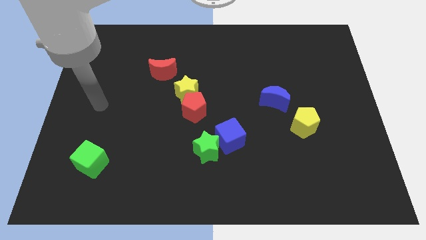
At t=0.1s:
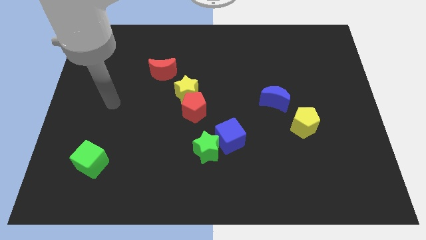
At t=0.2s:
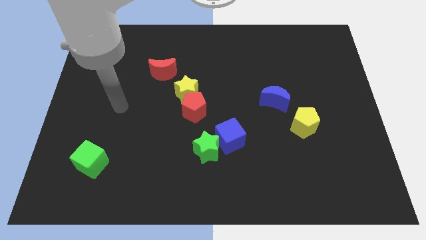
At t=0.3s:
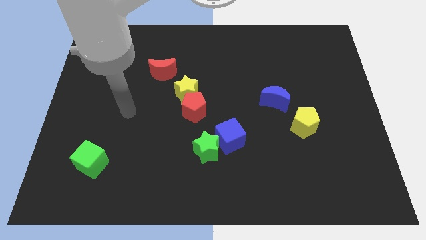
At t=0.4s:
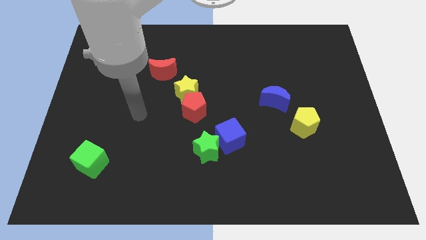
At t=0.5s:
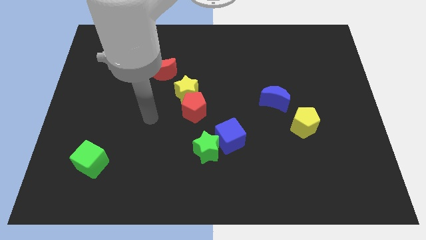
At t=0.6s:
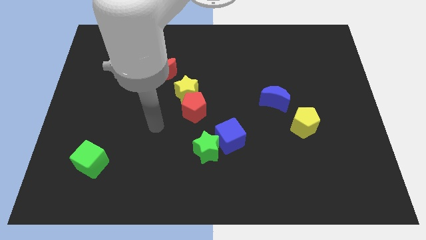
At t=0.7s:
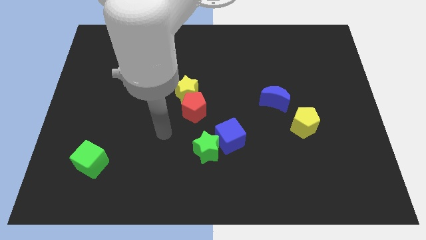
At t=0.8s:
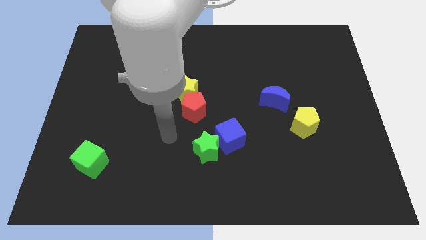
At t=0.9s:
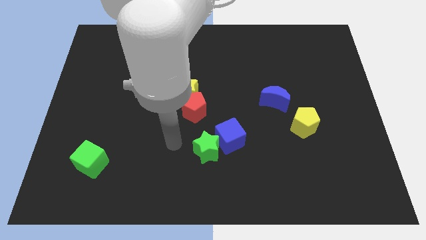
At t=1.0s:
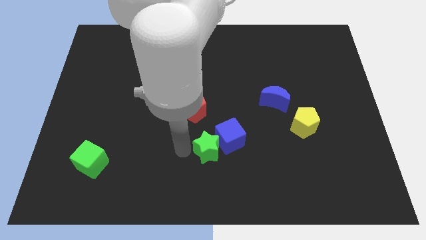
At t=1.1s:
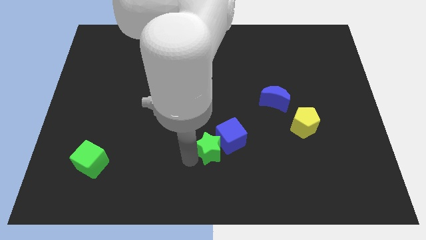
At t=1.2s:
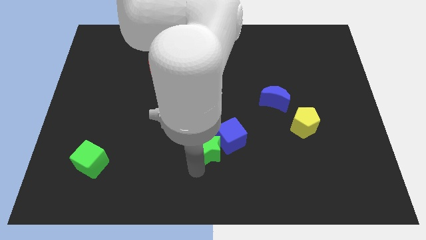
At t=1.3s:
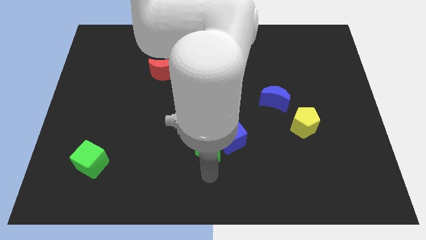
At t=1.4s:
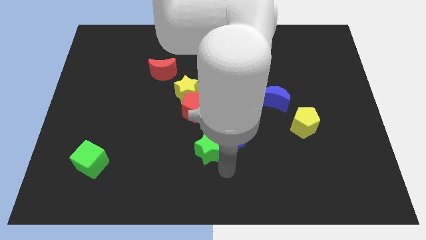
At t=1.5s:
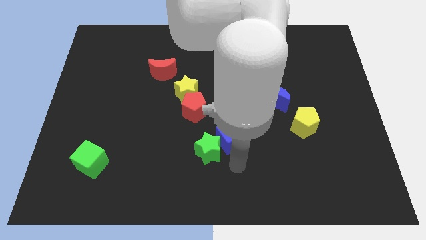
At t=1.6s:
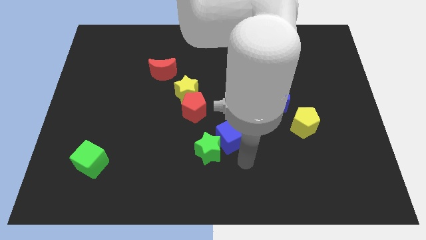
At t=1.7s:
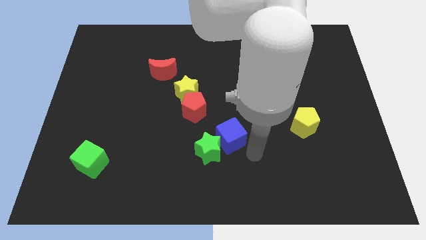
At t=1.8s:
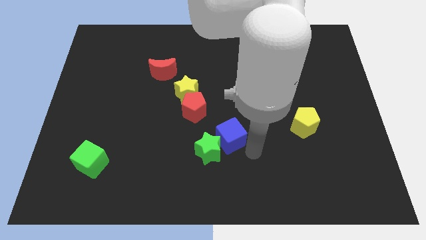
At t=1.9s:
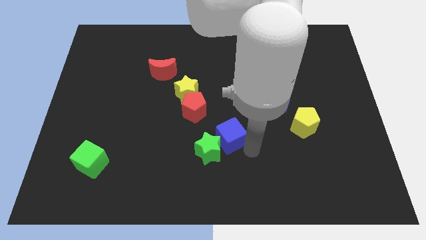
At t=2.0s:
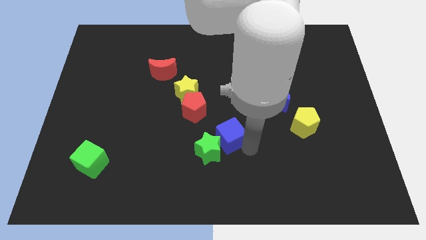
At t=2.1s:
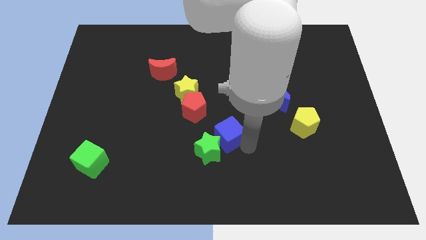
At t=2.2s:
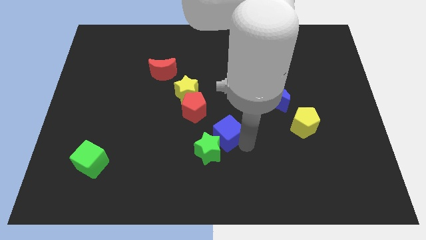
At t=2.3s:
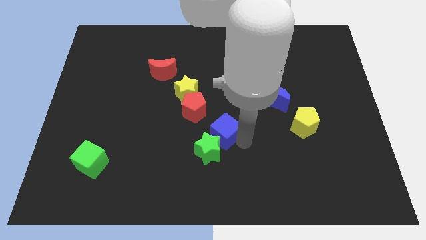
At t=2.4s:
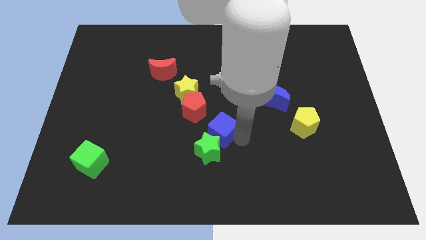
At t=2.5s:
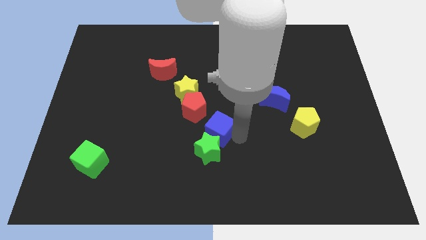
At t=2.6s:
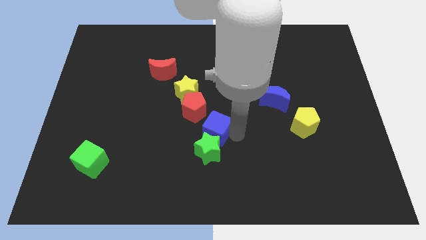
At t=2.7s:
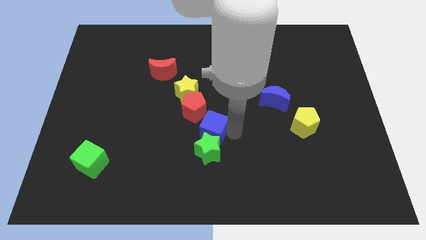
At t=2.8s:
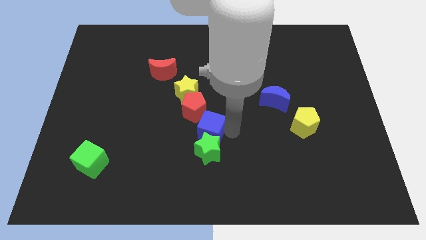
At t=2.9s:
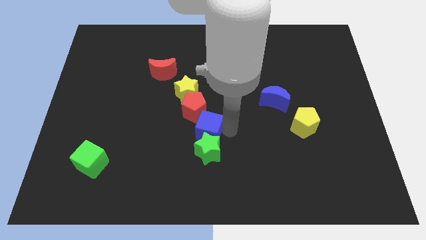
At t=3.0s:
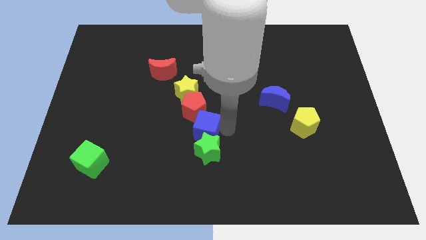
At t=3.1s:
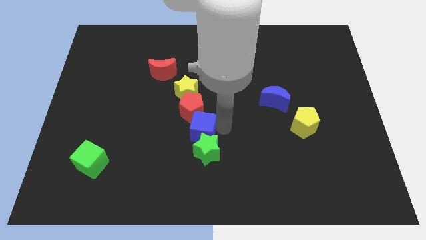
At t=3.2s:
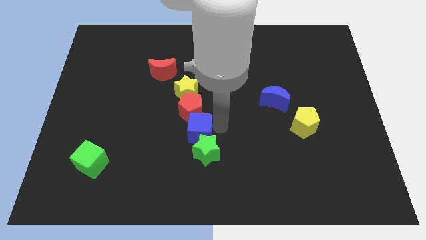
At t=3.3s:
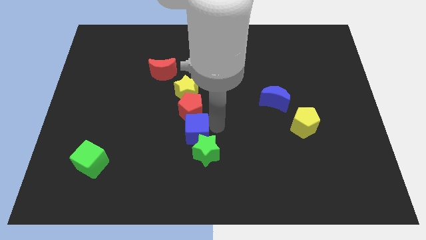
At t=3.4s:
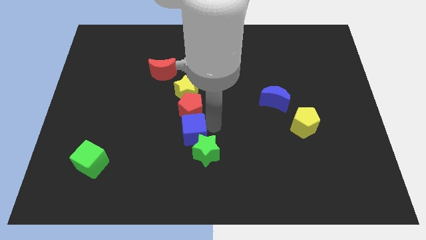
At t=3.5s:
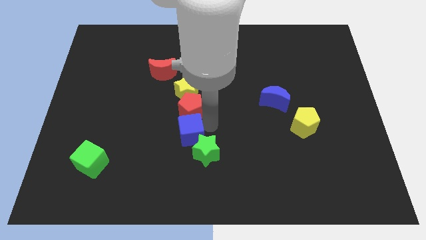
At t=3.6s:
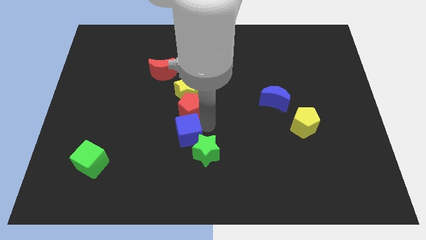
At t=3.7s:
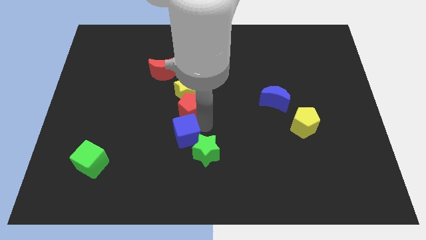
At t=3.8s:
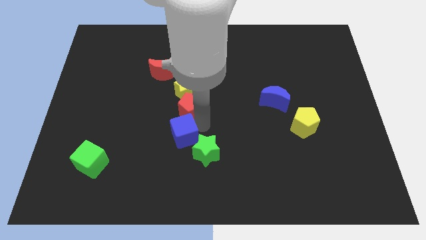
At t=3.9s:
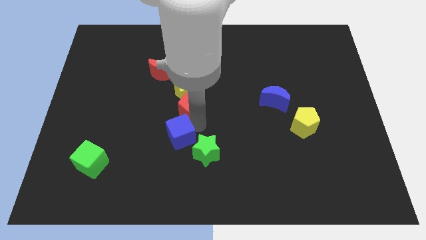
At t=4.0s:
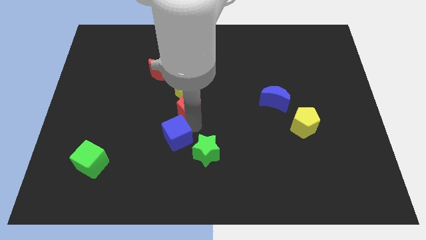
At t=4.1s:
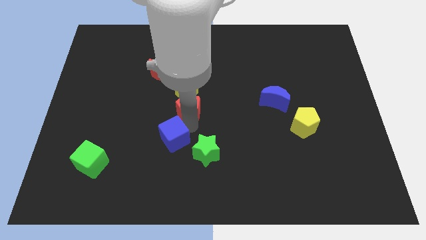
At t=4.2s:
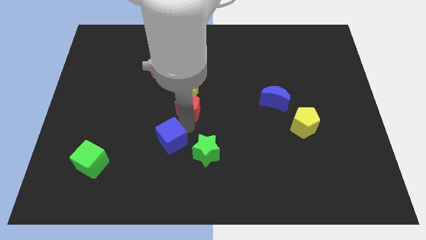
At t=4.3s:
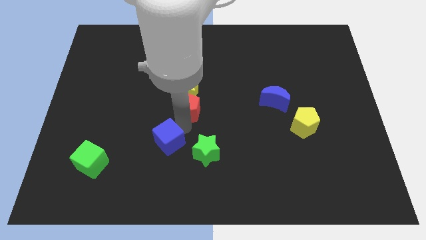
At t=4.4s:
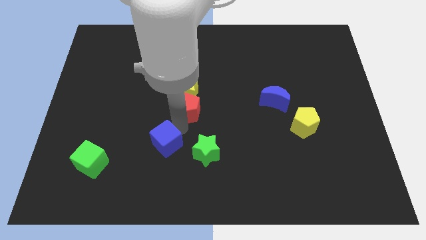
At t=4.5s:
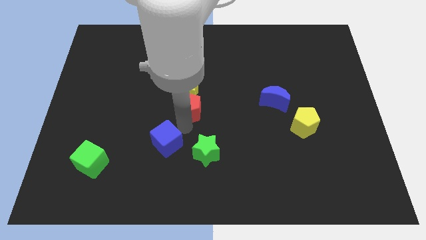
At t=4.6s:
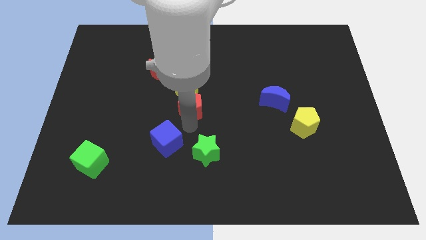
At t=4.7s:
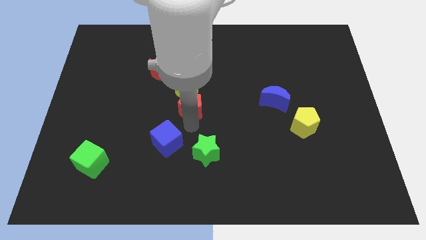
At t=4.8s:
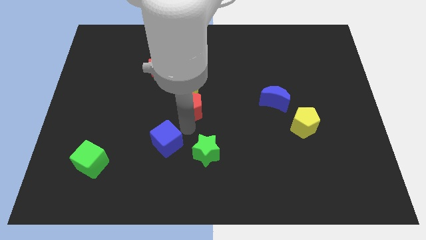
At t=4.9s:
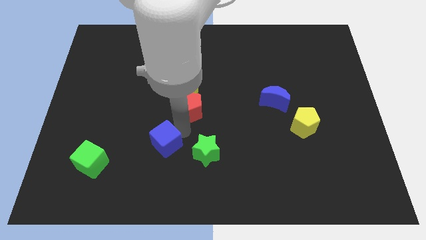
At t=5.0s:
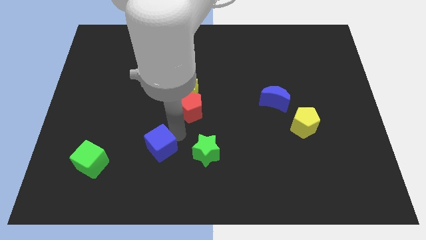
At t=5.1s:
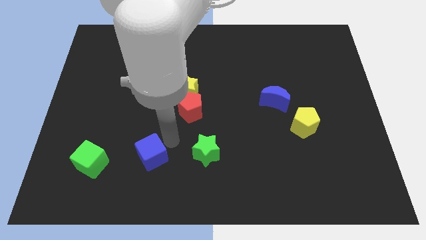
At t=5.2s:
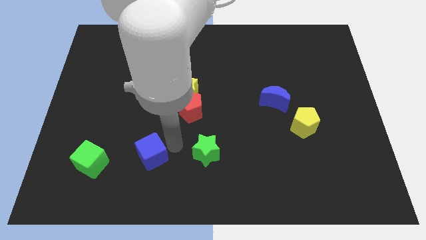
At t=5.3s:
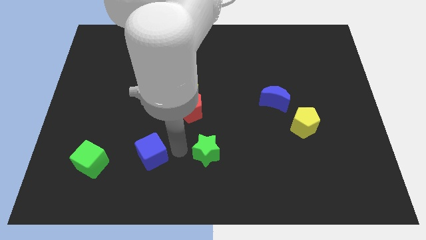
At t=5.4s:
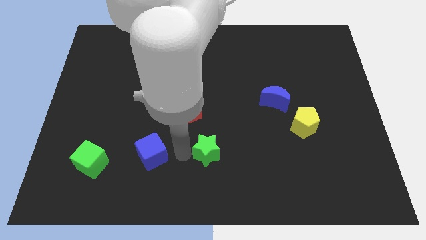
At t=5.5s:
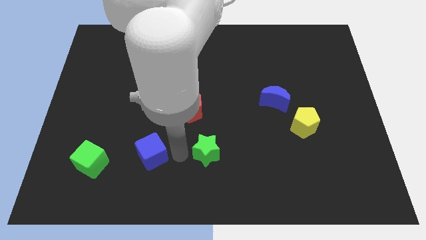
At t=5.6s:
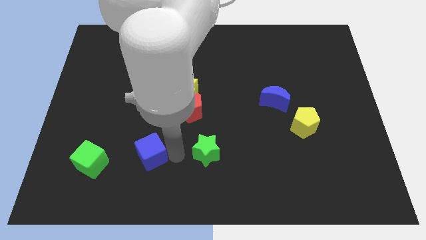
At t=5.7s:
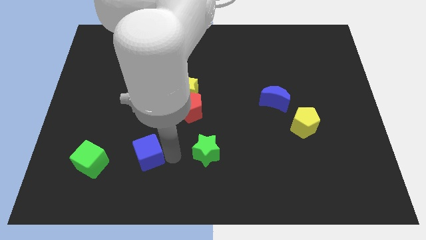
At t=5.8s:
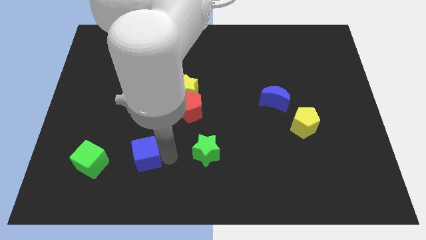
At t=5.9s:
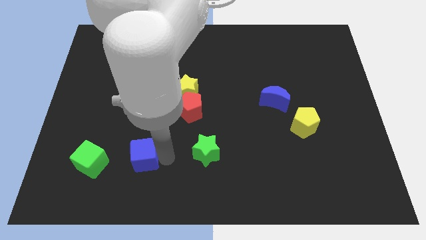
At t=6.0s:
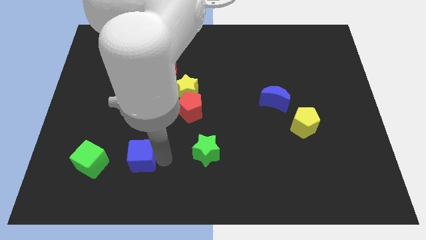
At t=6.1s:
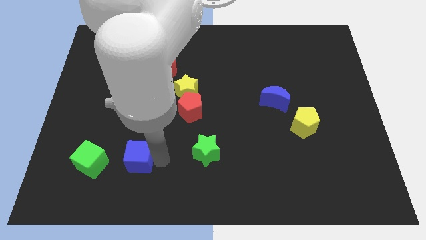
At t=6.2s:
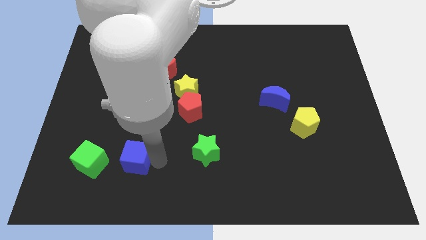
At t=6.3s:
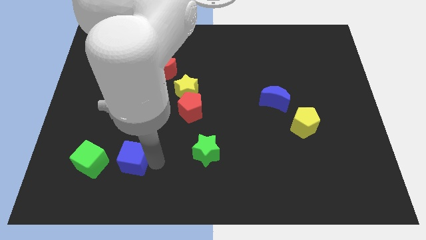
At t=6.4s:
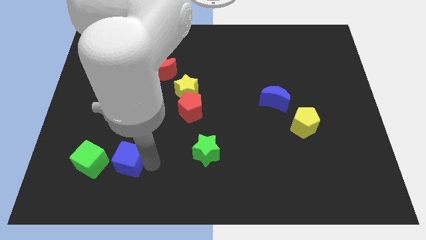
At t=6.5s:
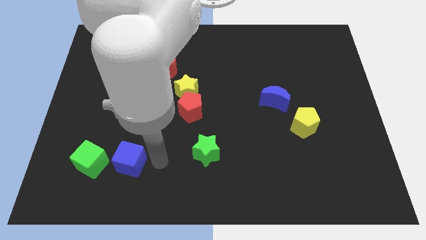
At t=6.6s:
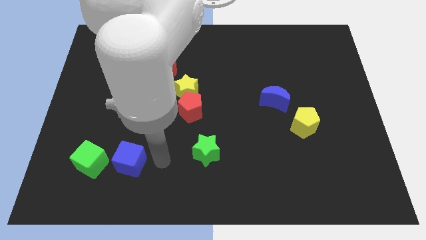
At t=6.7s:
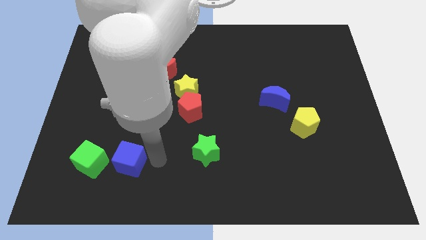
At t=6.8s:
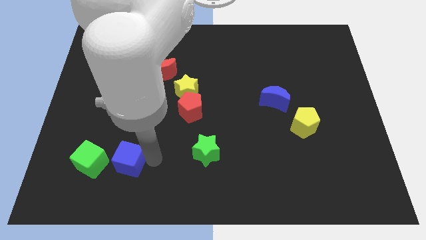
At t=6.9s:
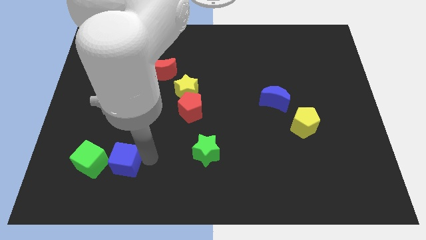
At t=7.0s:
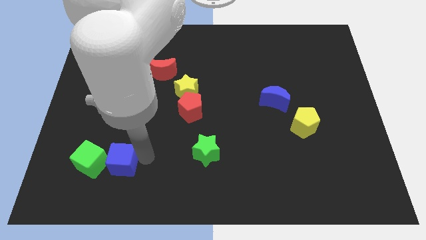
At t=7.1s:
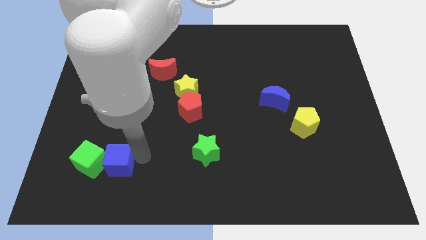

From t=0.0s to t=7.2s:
slide the blue cube close to the green cube

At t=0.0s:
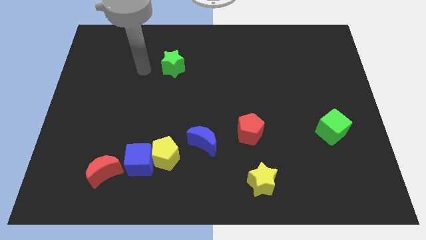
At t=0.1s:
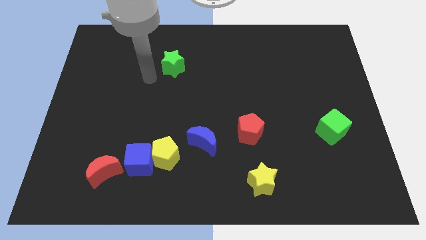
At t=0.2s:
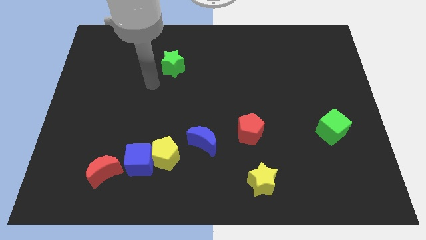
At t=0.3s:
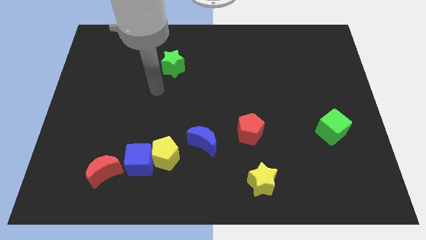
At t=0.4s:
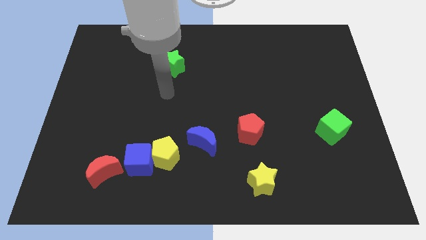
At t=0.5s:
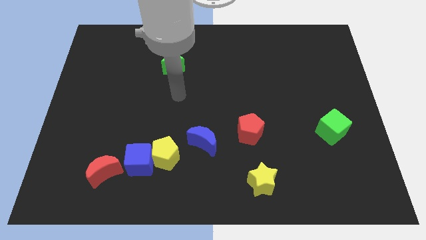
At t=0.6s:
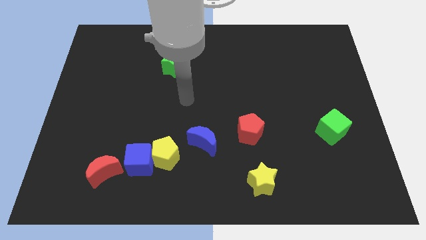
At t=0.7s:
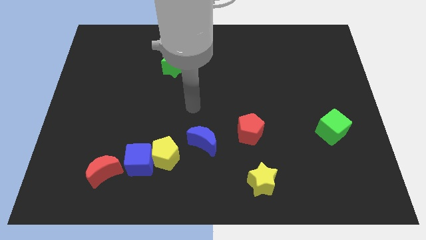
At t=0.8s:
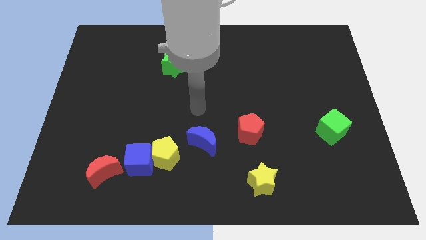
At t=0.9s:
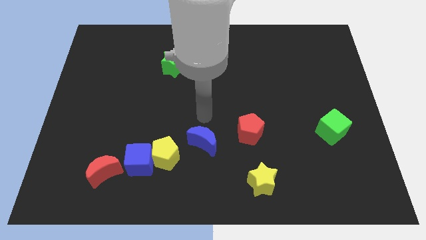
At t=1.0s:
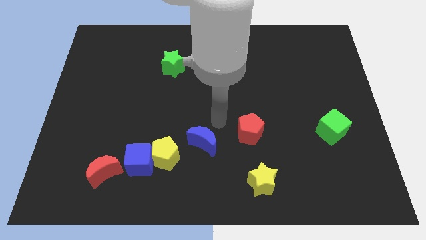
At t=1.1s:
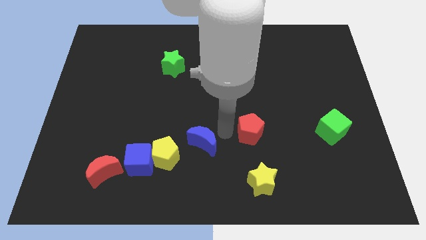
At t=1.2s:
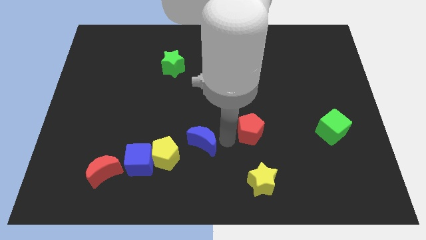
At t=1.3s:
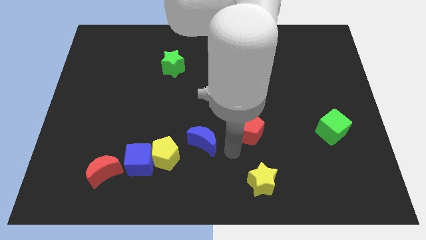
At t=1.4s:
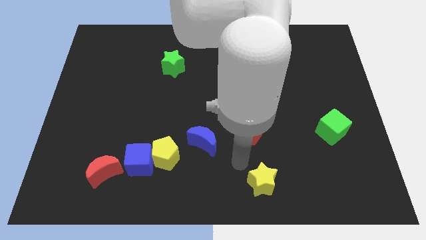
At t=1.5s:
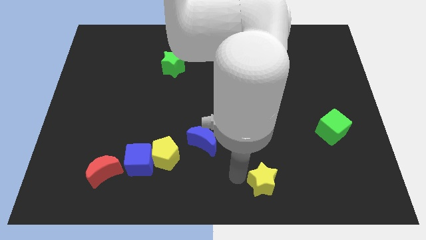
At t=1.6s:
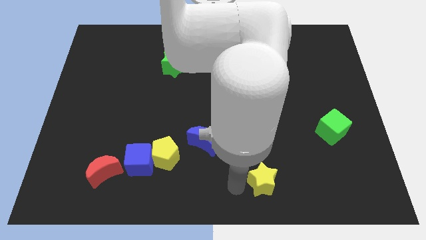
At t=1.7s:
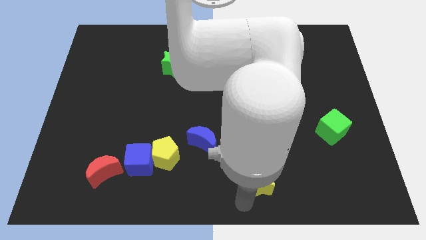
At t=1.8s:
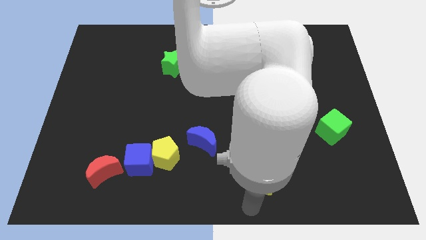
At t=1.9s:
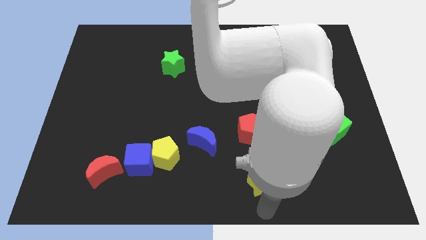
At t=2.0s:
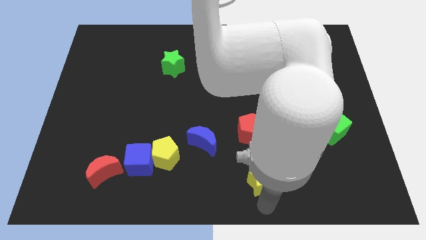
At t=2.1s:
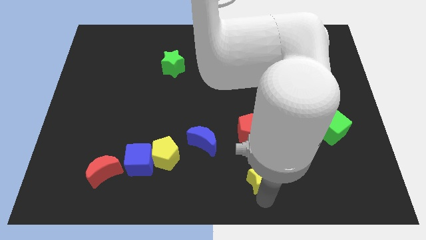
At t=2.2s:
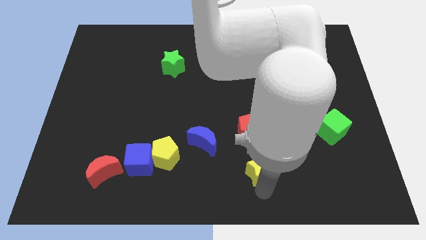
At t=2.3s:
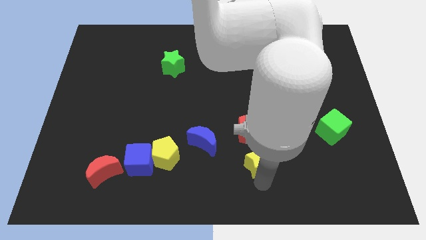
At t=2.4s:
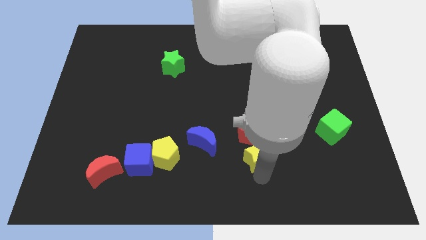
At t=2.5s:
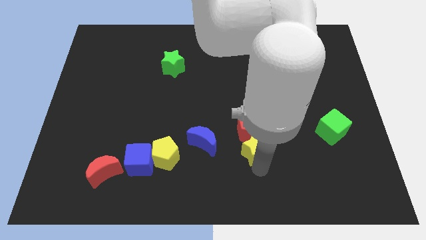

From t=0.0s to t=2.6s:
slide the yellow star next to the red pentagon
